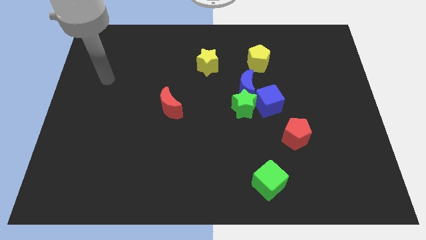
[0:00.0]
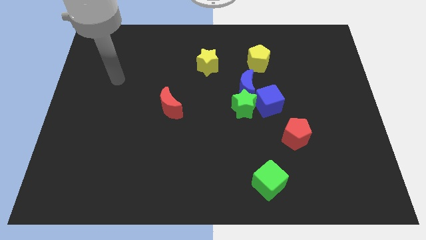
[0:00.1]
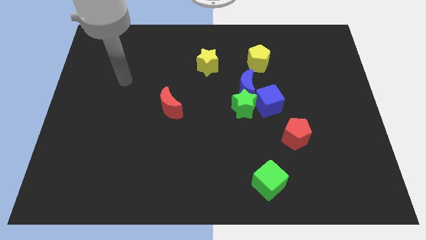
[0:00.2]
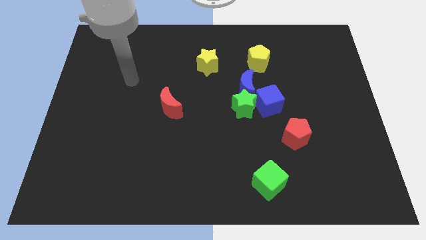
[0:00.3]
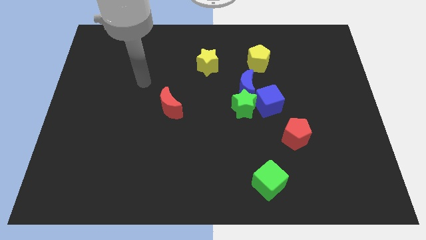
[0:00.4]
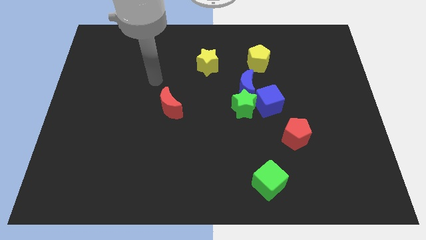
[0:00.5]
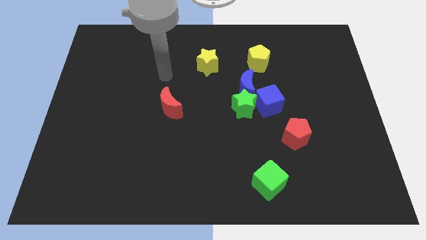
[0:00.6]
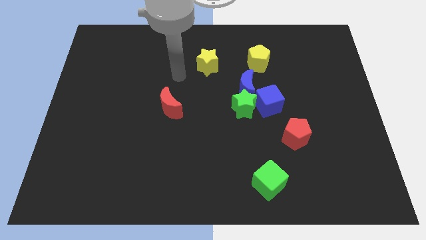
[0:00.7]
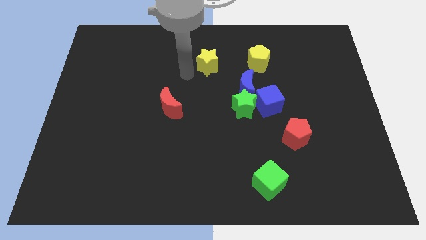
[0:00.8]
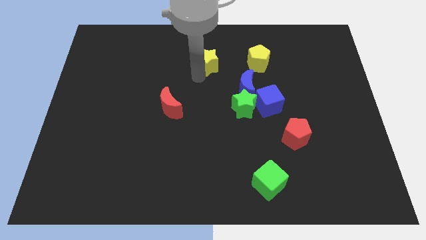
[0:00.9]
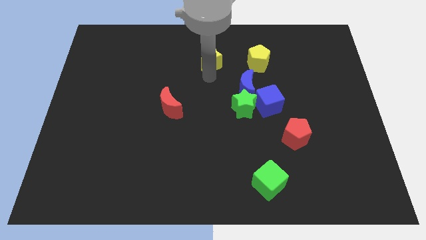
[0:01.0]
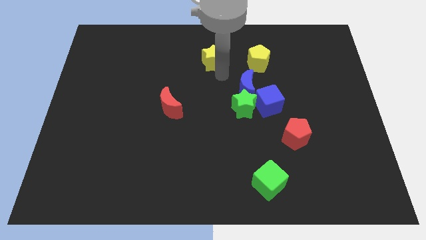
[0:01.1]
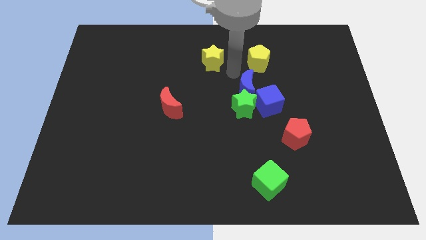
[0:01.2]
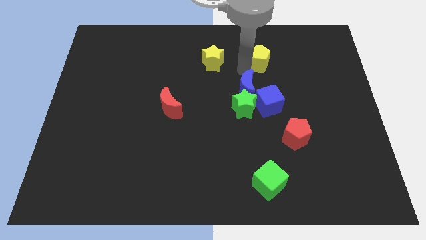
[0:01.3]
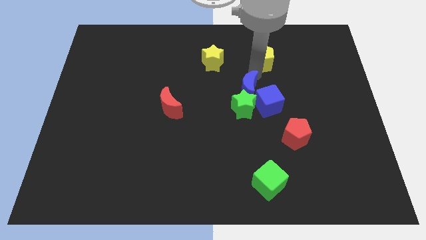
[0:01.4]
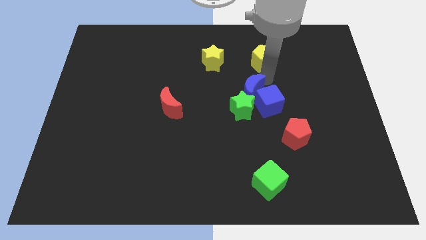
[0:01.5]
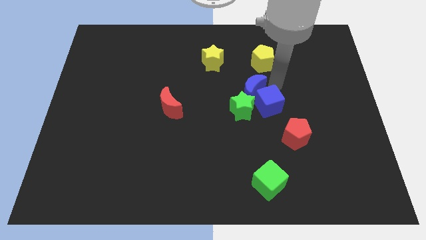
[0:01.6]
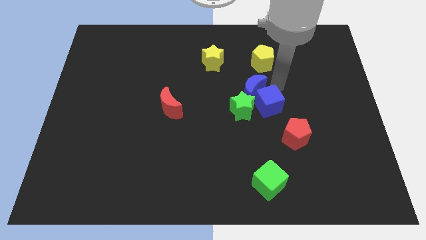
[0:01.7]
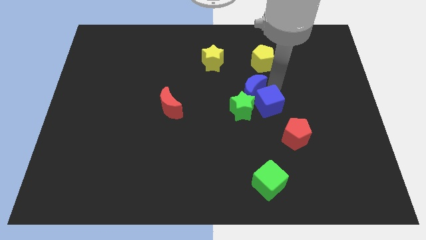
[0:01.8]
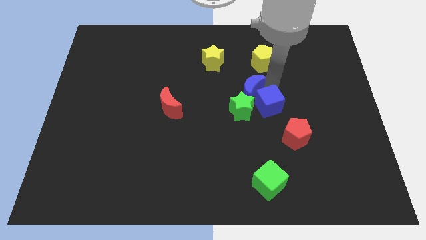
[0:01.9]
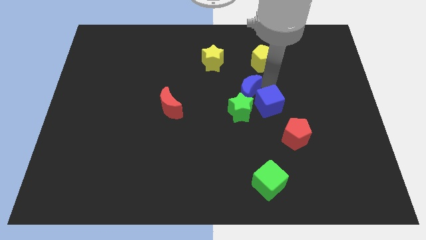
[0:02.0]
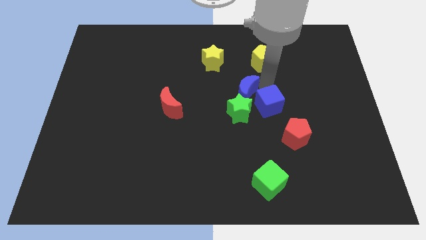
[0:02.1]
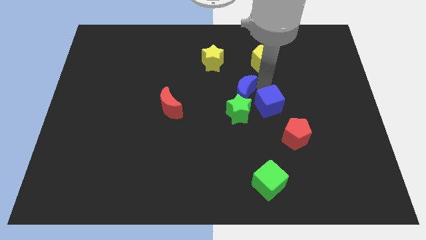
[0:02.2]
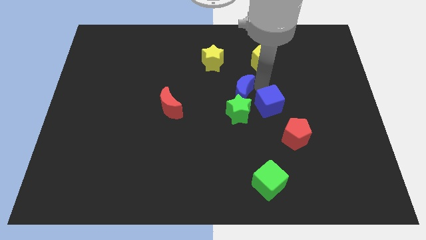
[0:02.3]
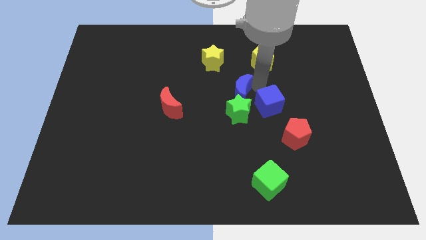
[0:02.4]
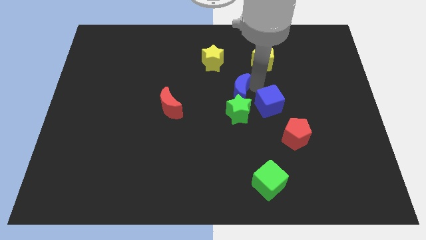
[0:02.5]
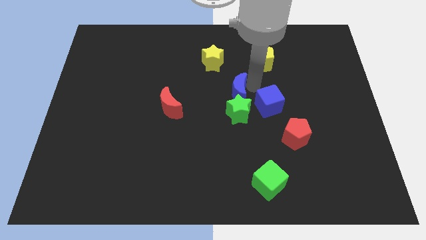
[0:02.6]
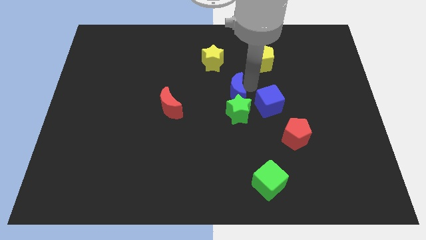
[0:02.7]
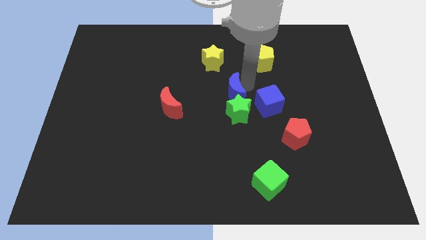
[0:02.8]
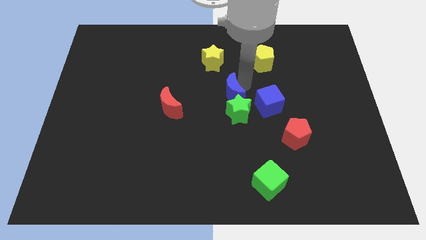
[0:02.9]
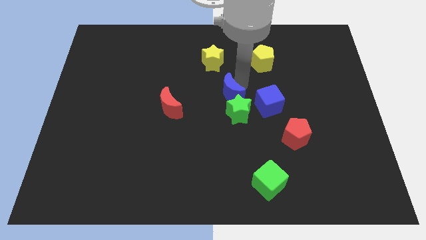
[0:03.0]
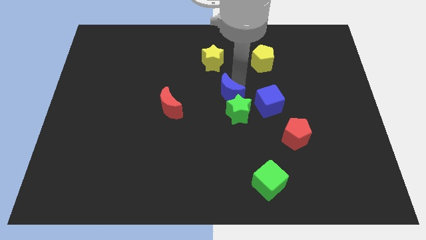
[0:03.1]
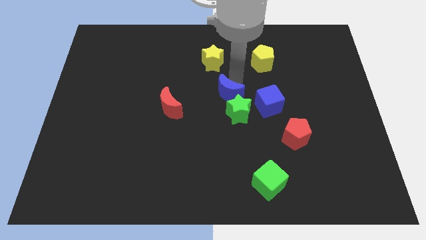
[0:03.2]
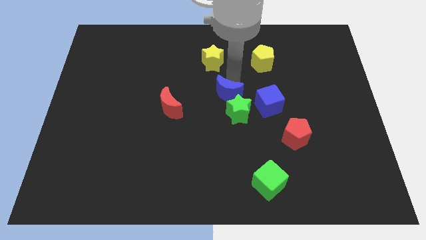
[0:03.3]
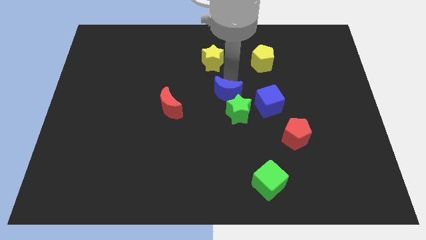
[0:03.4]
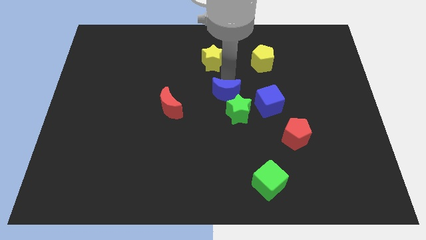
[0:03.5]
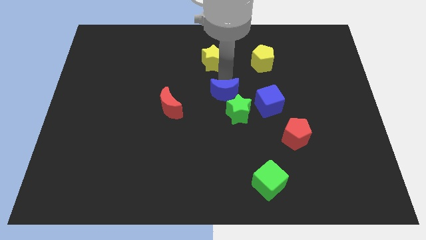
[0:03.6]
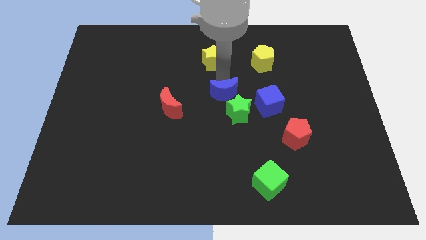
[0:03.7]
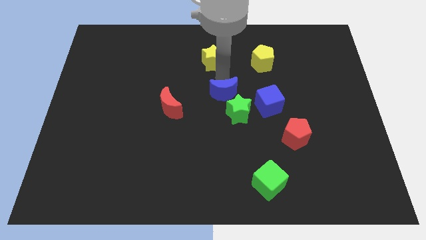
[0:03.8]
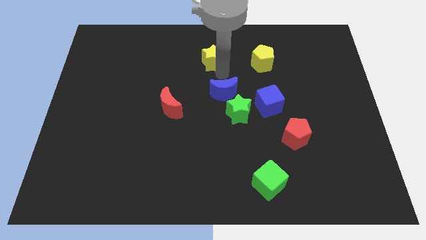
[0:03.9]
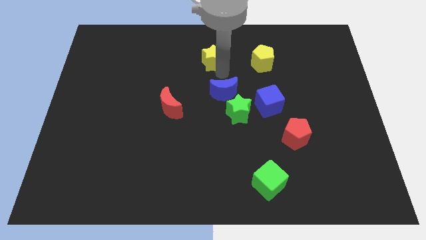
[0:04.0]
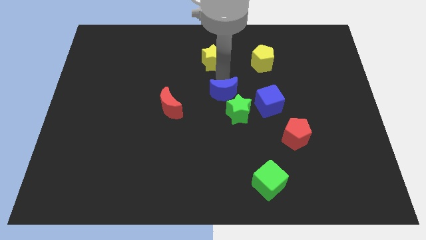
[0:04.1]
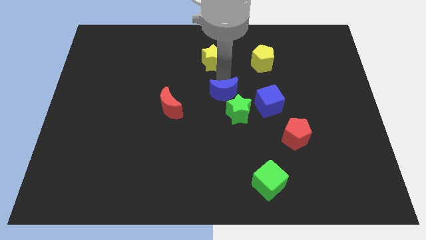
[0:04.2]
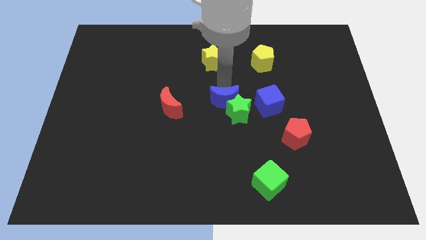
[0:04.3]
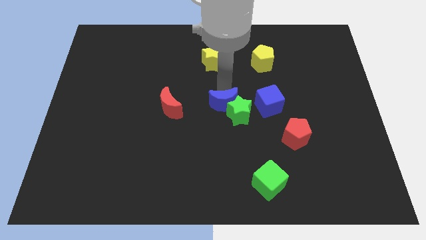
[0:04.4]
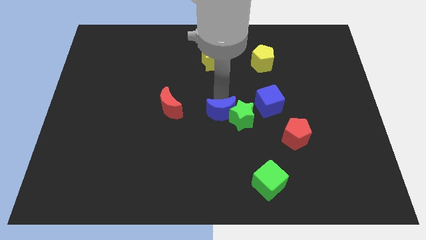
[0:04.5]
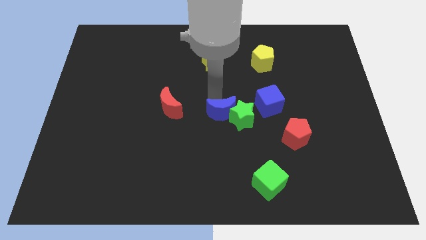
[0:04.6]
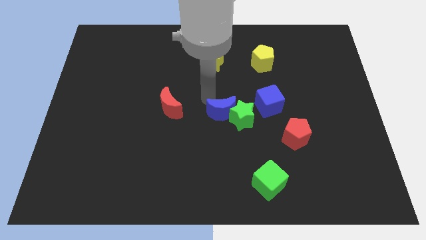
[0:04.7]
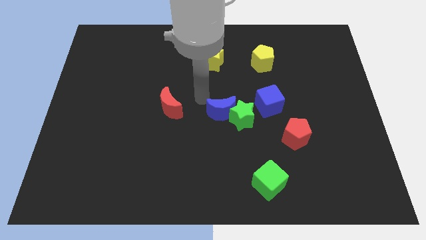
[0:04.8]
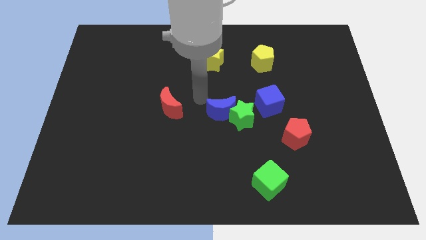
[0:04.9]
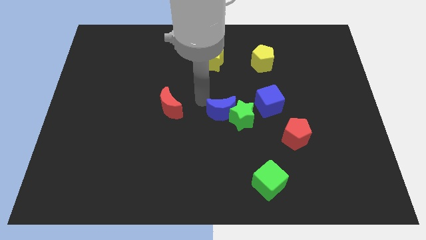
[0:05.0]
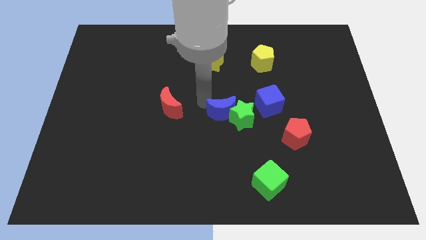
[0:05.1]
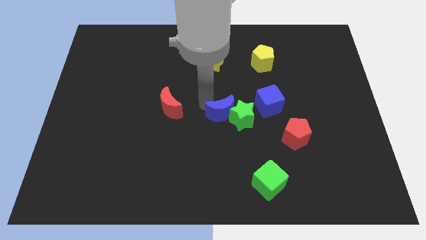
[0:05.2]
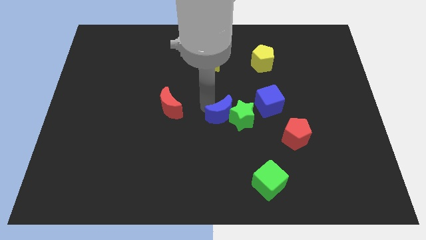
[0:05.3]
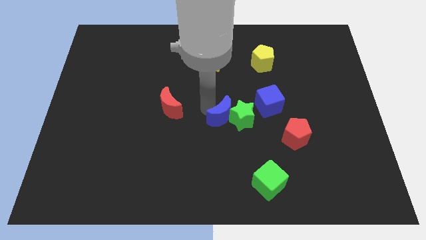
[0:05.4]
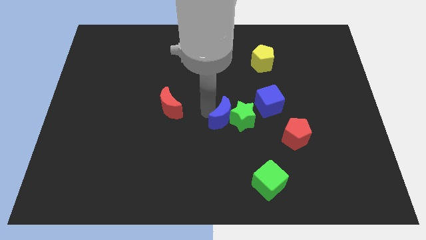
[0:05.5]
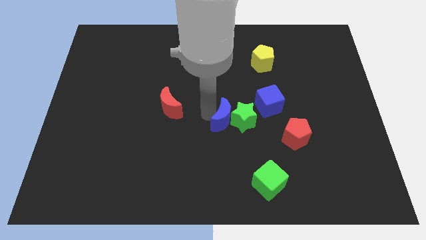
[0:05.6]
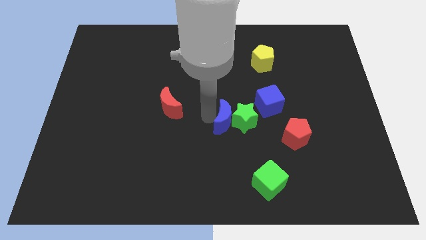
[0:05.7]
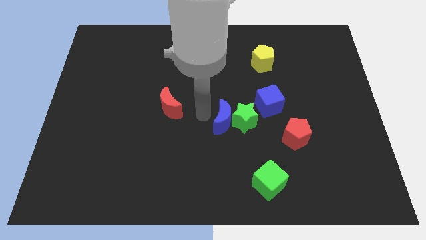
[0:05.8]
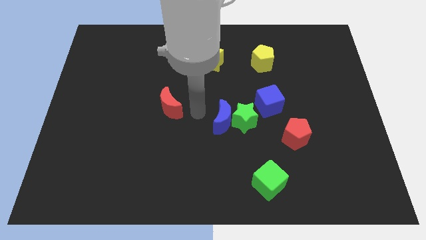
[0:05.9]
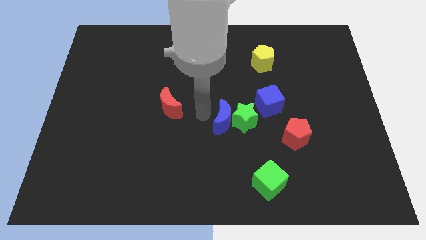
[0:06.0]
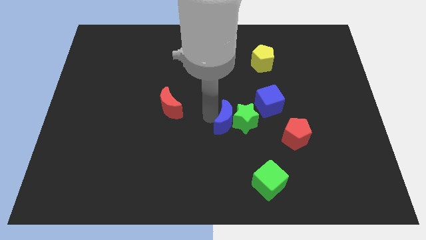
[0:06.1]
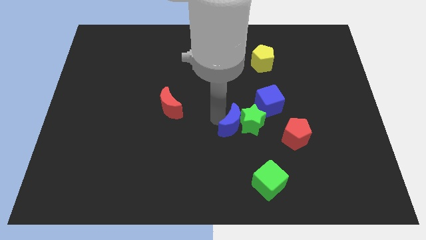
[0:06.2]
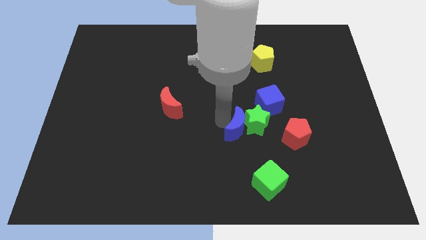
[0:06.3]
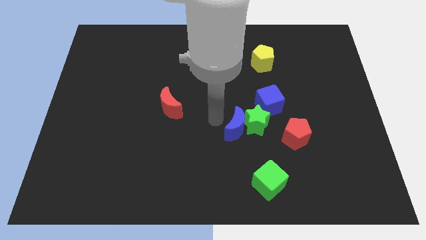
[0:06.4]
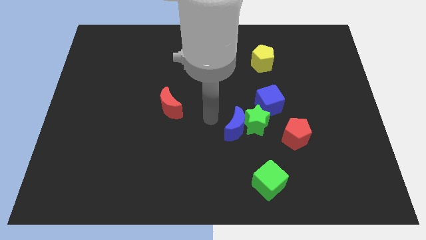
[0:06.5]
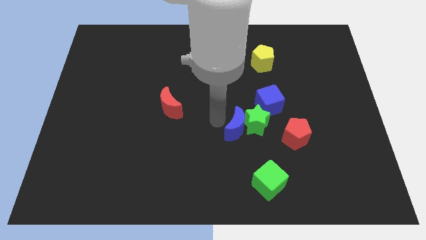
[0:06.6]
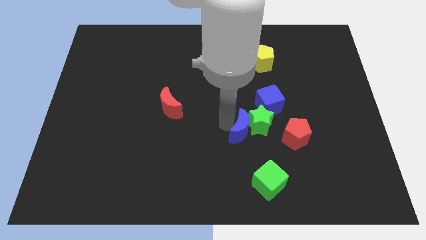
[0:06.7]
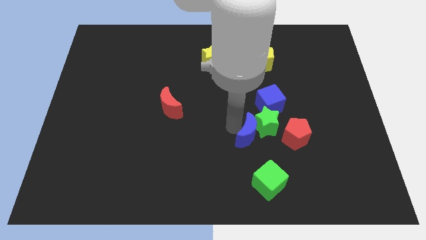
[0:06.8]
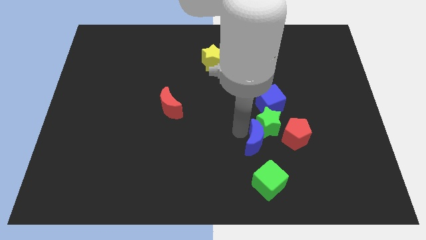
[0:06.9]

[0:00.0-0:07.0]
move the blue moon to the bottom side of the blue cube
